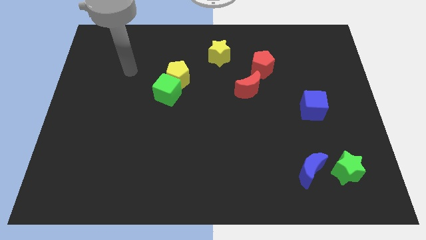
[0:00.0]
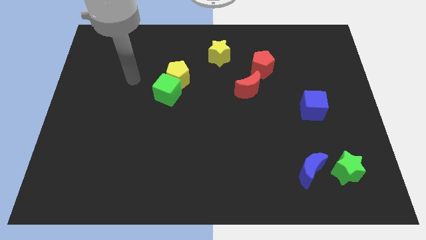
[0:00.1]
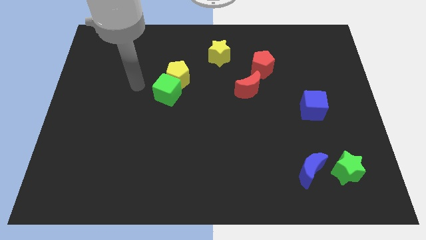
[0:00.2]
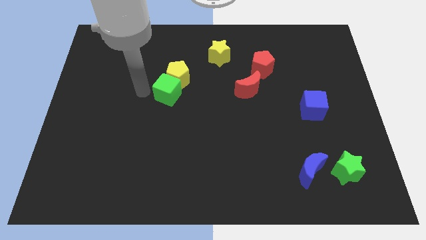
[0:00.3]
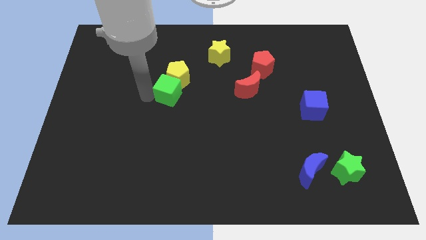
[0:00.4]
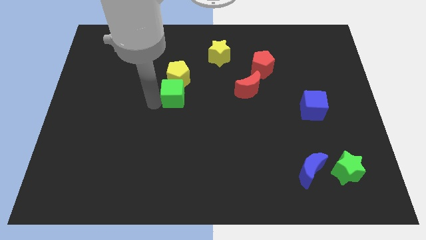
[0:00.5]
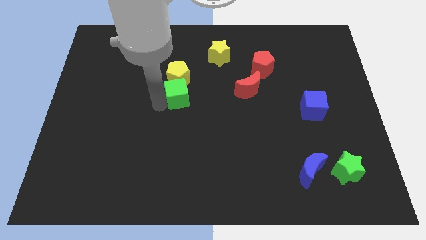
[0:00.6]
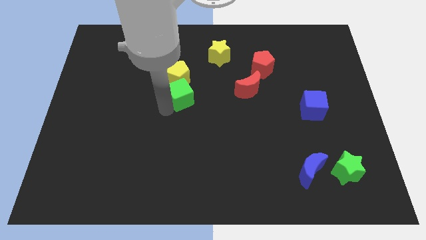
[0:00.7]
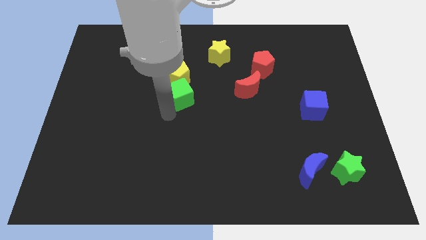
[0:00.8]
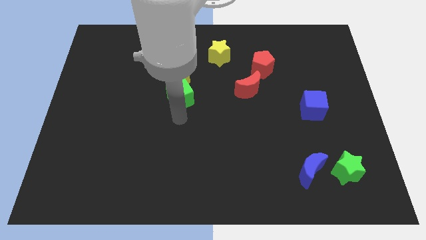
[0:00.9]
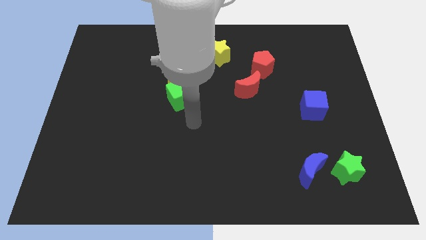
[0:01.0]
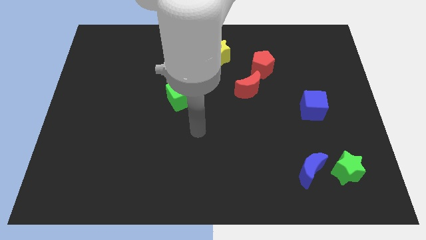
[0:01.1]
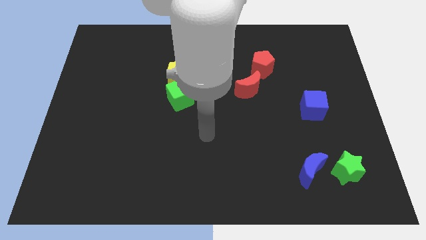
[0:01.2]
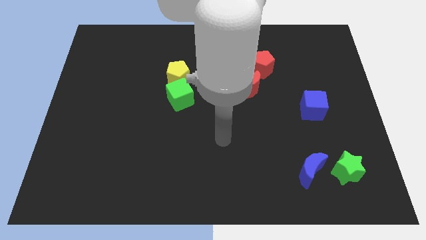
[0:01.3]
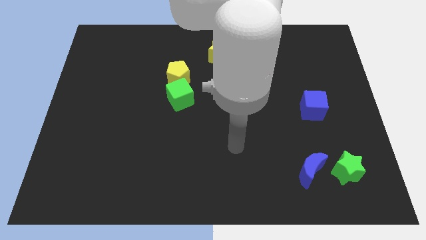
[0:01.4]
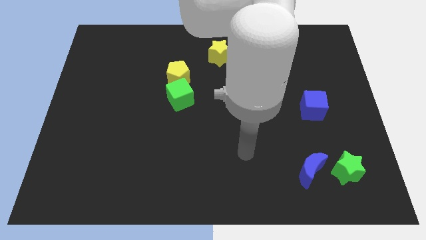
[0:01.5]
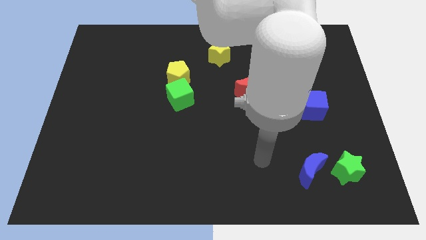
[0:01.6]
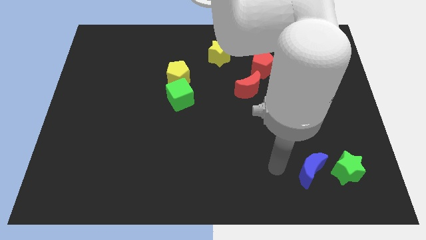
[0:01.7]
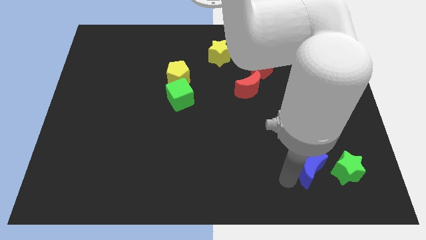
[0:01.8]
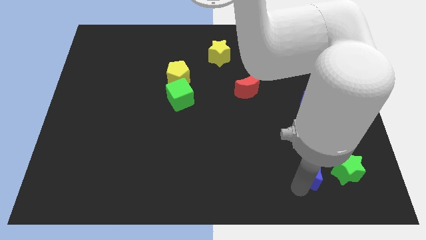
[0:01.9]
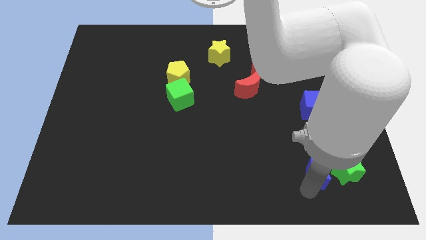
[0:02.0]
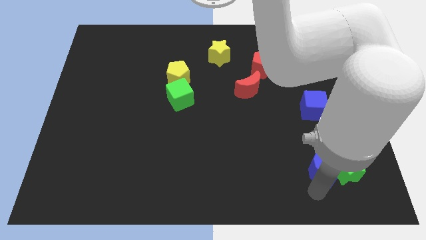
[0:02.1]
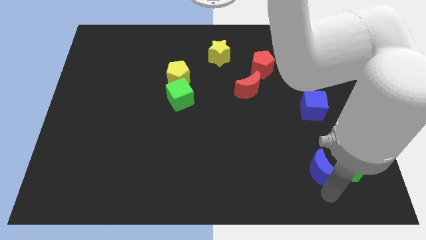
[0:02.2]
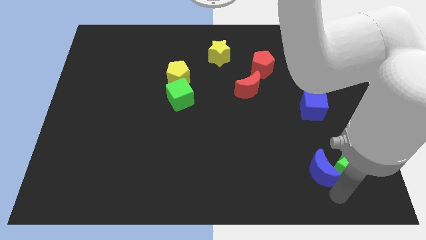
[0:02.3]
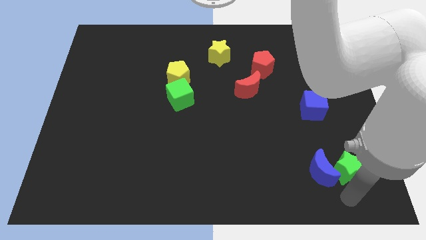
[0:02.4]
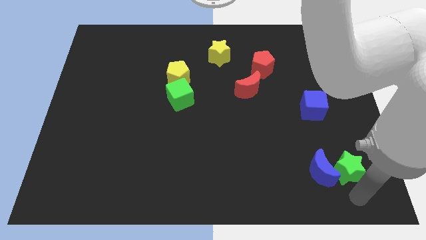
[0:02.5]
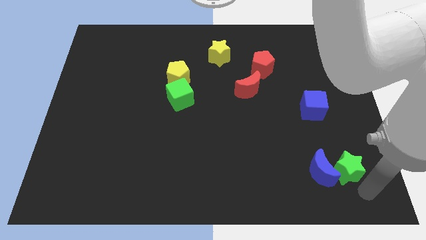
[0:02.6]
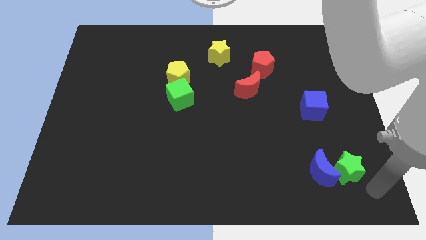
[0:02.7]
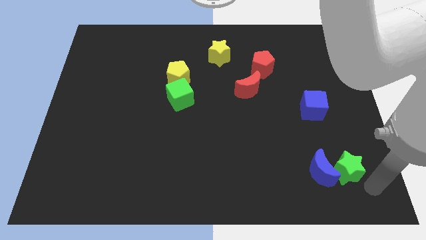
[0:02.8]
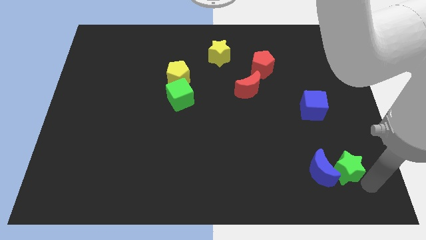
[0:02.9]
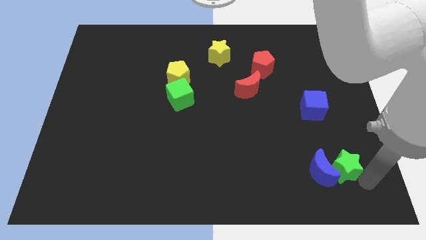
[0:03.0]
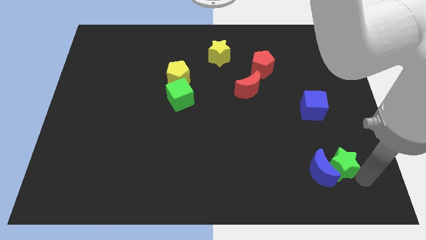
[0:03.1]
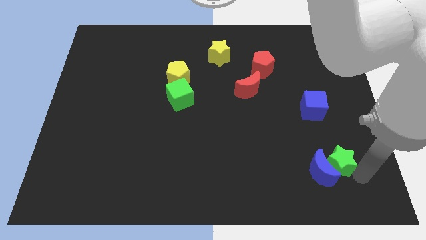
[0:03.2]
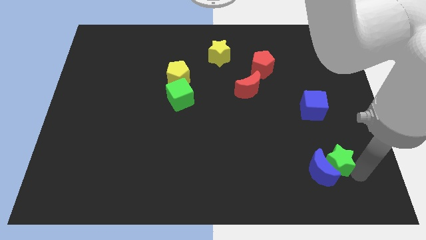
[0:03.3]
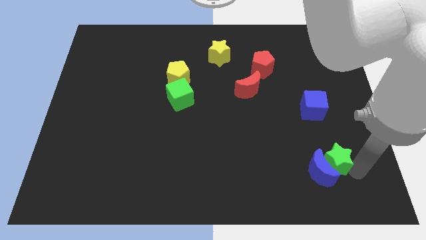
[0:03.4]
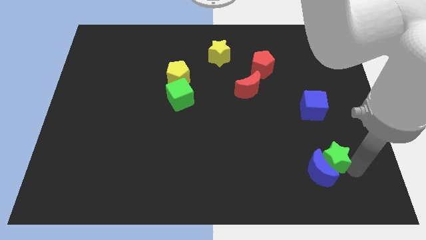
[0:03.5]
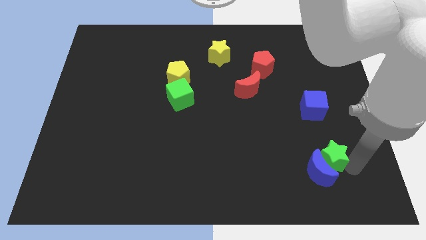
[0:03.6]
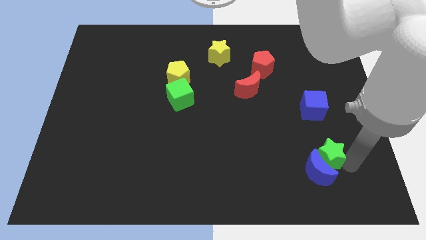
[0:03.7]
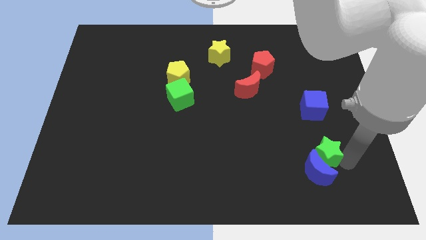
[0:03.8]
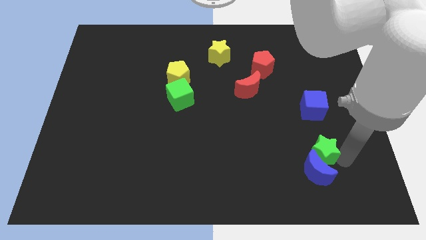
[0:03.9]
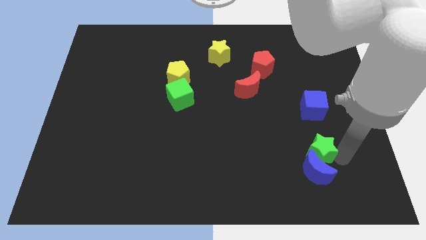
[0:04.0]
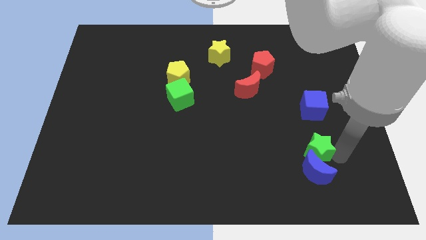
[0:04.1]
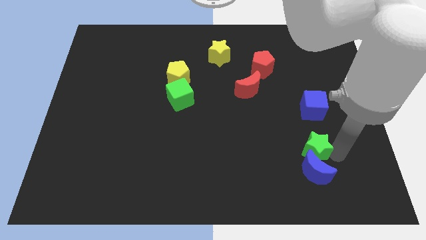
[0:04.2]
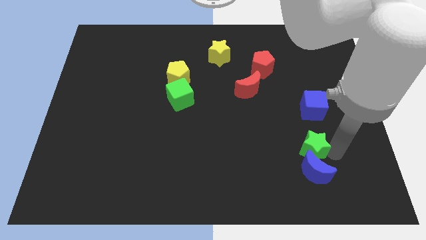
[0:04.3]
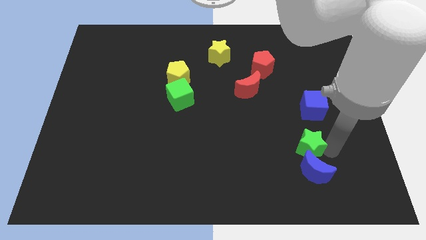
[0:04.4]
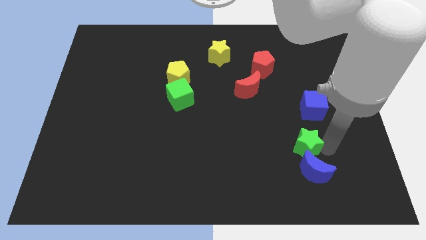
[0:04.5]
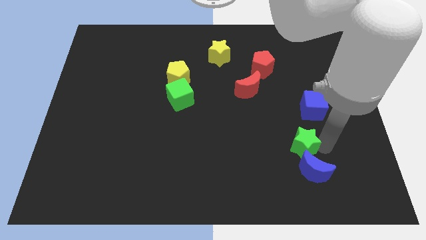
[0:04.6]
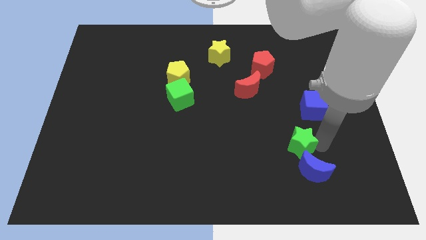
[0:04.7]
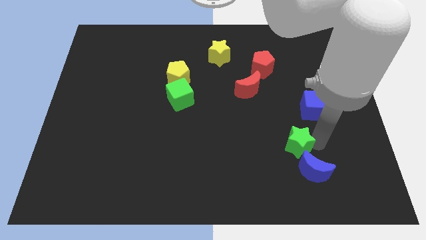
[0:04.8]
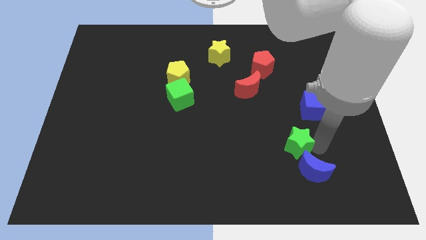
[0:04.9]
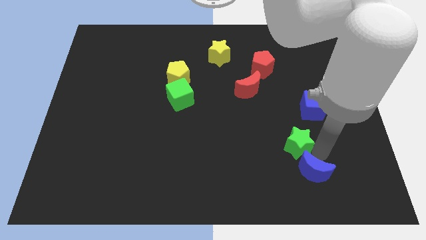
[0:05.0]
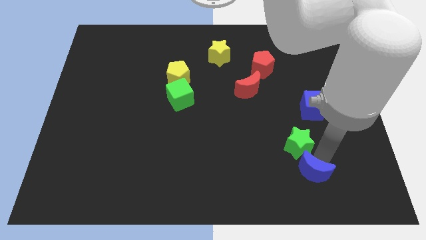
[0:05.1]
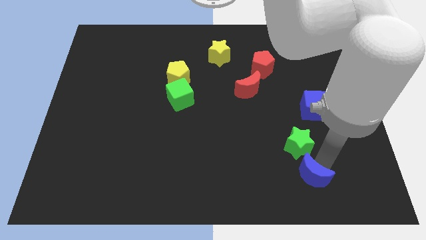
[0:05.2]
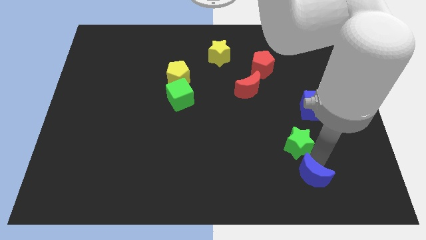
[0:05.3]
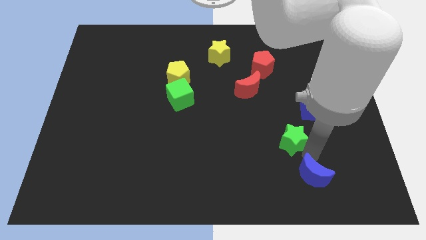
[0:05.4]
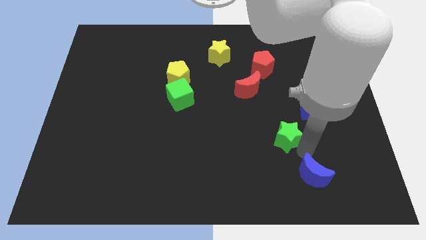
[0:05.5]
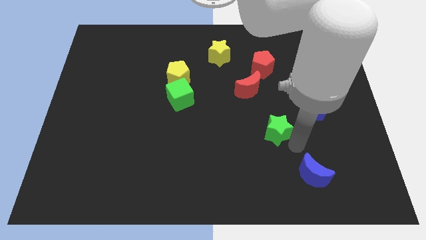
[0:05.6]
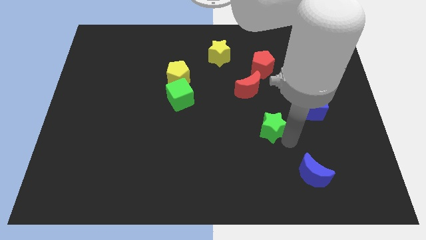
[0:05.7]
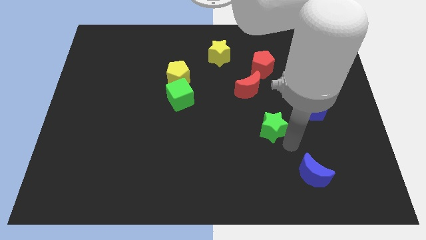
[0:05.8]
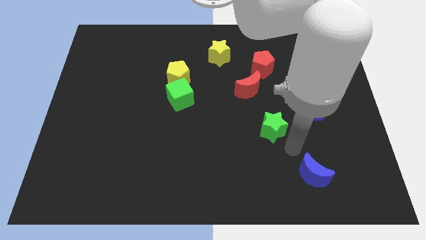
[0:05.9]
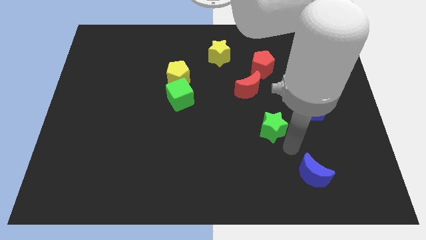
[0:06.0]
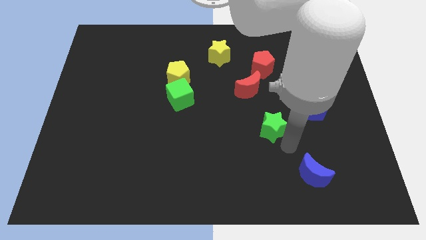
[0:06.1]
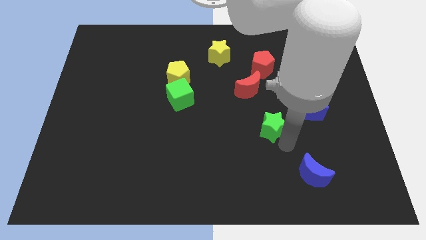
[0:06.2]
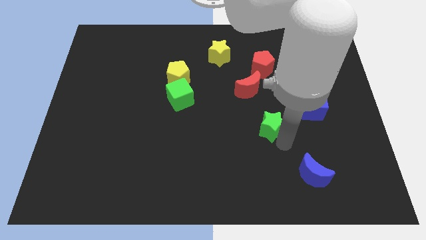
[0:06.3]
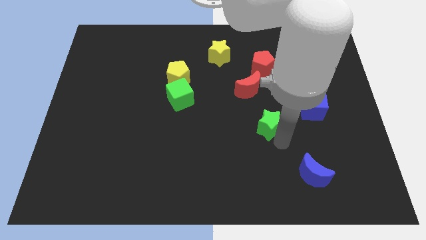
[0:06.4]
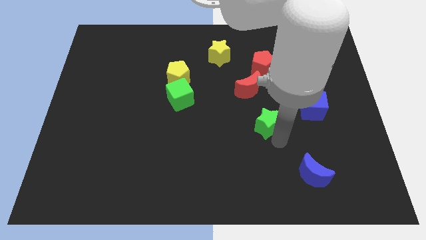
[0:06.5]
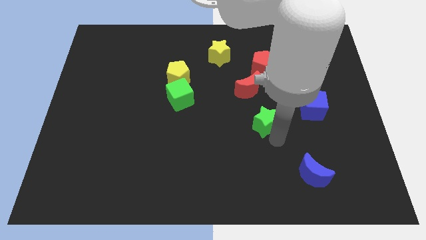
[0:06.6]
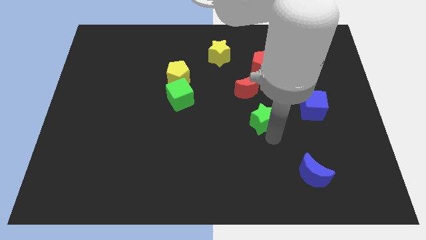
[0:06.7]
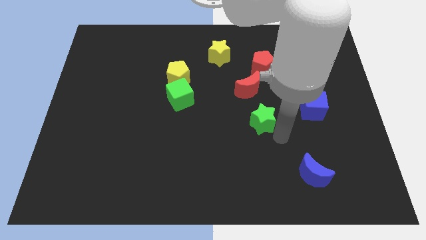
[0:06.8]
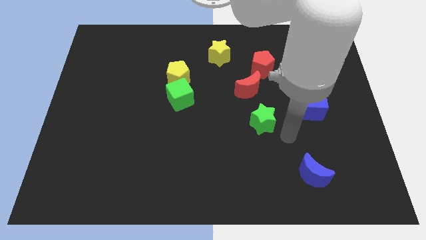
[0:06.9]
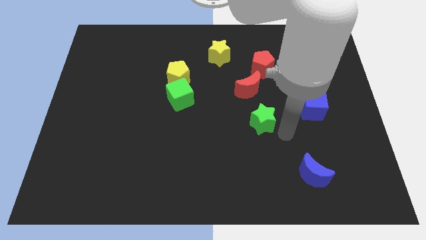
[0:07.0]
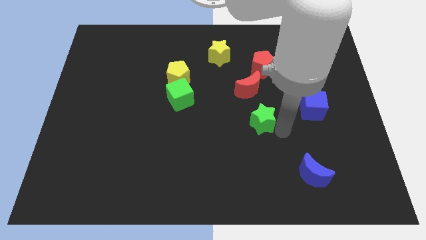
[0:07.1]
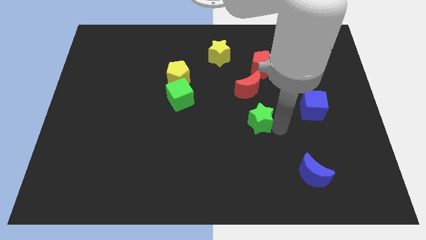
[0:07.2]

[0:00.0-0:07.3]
move the green star to the middle of the board
